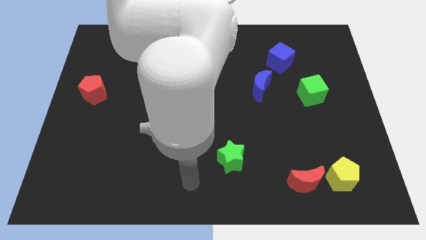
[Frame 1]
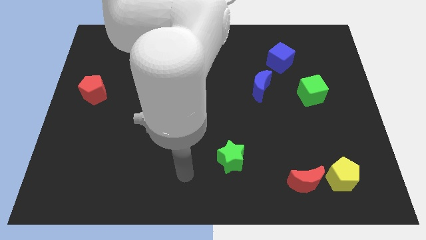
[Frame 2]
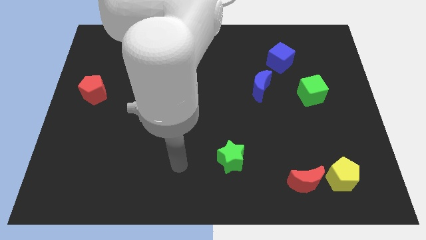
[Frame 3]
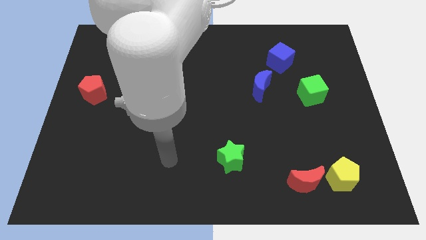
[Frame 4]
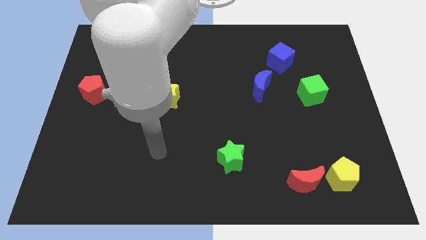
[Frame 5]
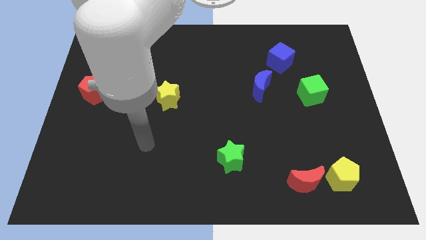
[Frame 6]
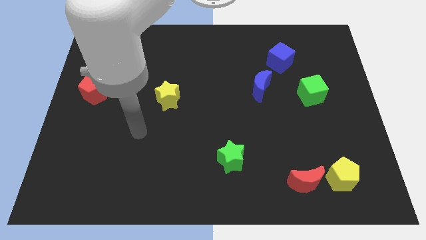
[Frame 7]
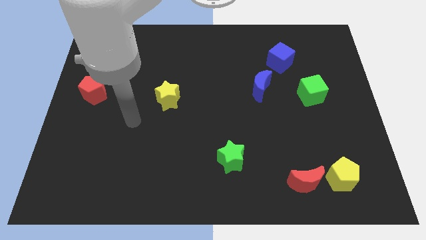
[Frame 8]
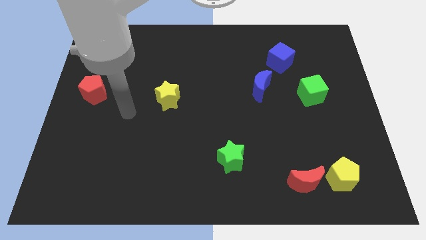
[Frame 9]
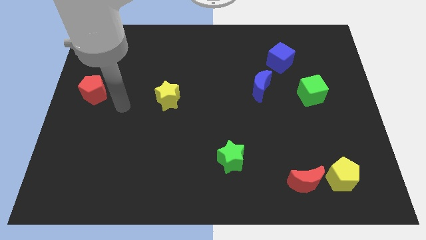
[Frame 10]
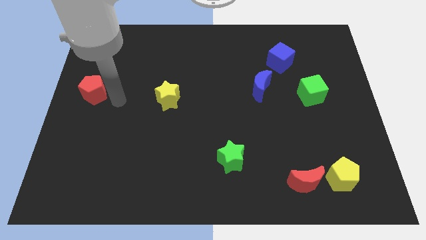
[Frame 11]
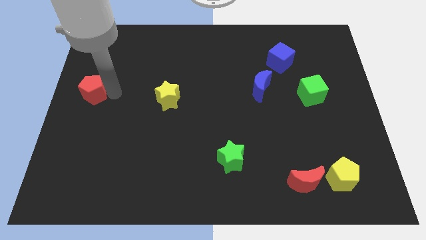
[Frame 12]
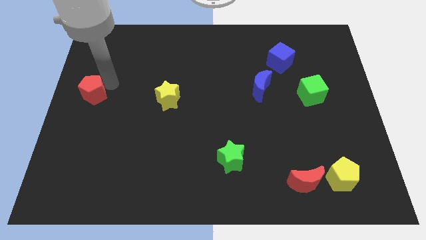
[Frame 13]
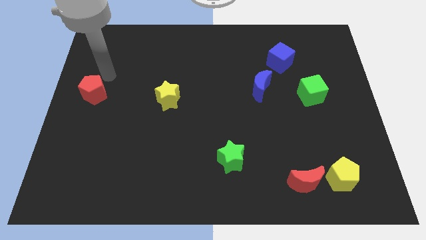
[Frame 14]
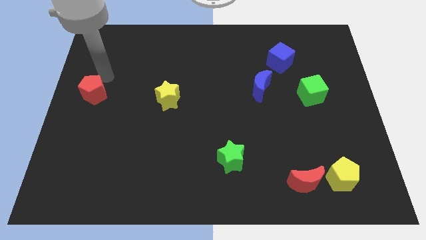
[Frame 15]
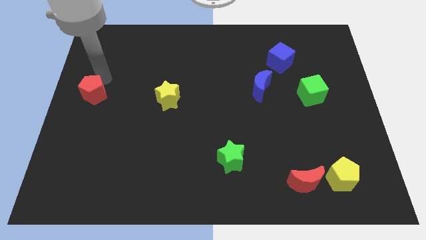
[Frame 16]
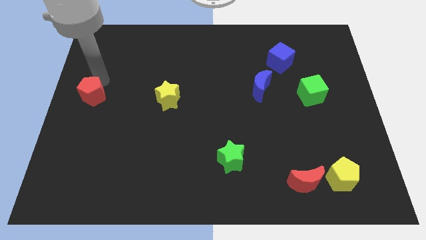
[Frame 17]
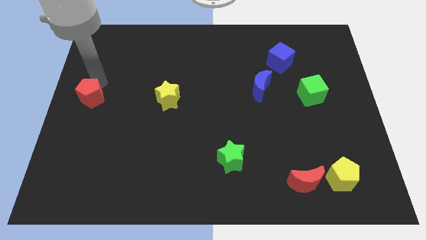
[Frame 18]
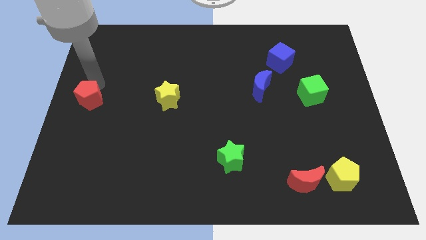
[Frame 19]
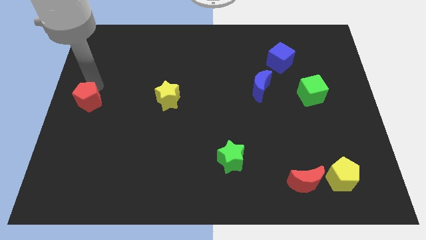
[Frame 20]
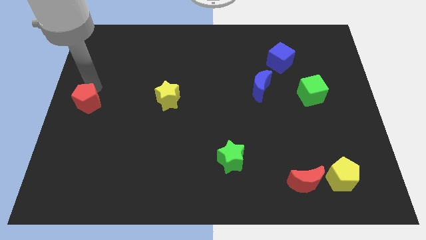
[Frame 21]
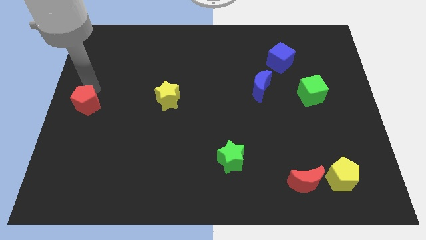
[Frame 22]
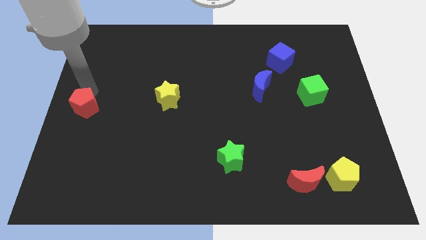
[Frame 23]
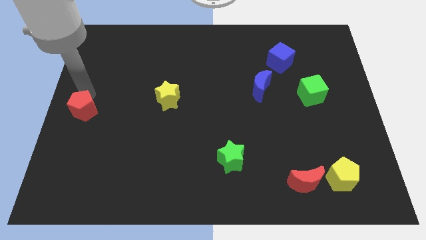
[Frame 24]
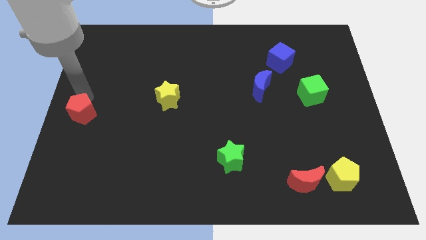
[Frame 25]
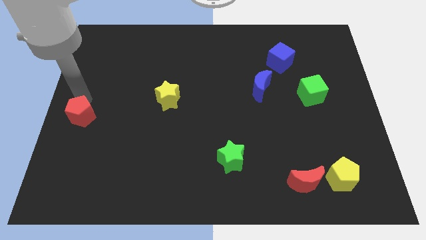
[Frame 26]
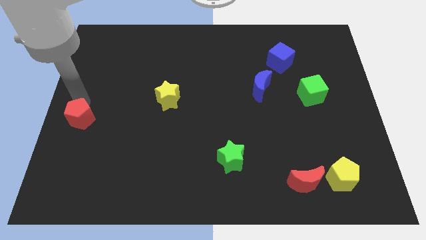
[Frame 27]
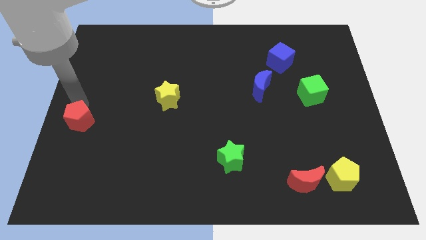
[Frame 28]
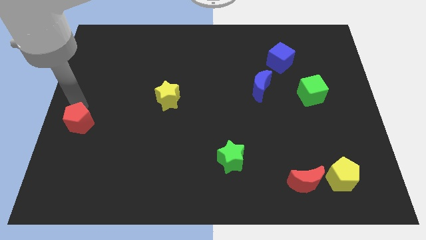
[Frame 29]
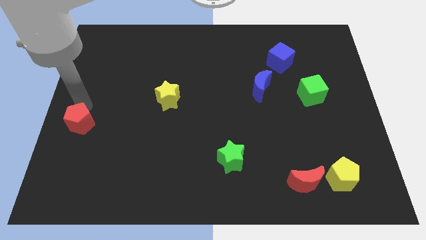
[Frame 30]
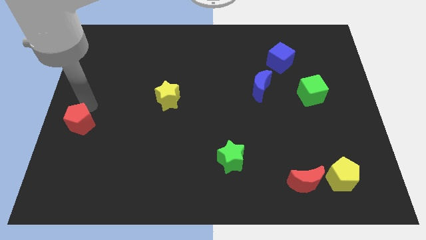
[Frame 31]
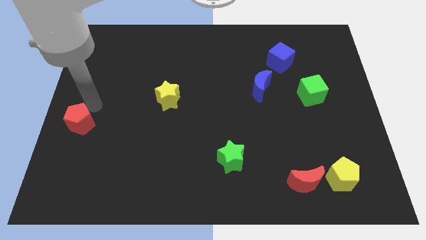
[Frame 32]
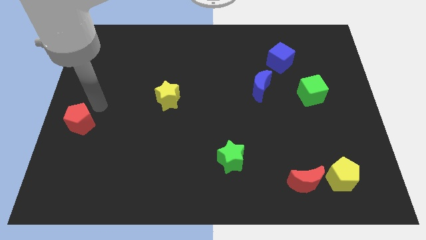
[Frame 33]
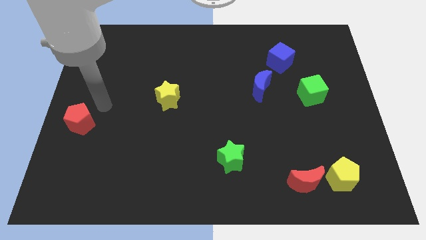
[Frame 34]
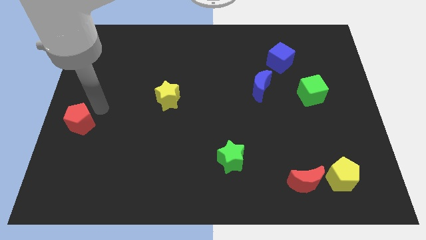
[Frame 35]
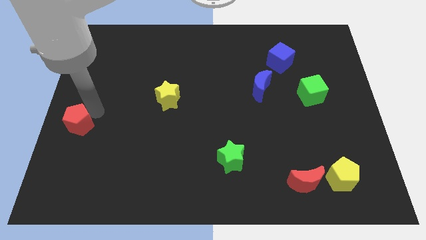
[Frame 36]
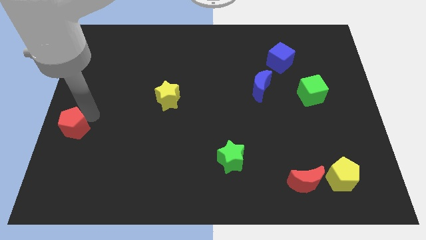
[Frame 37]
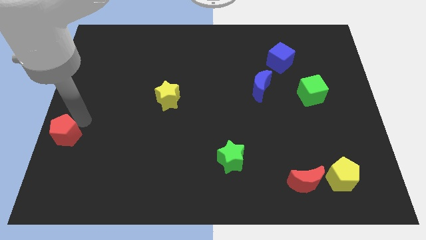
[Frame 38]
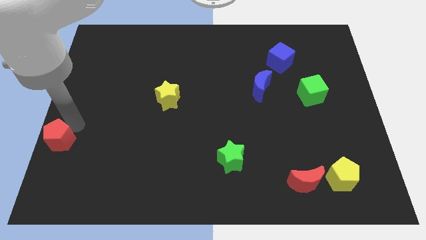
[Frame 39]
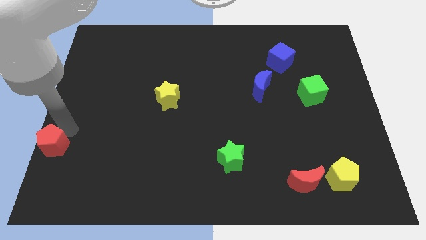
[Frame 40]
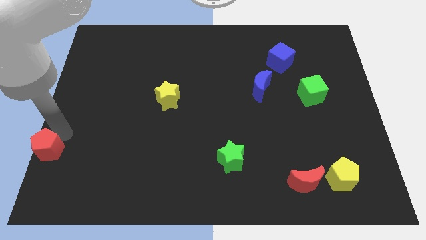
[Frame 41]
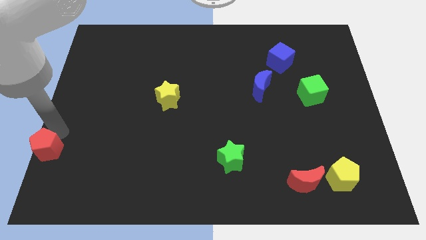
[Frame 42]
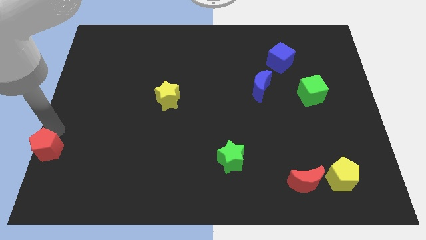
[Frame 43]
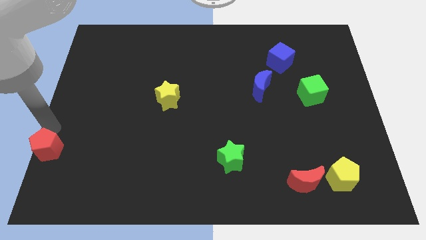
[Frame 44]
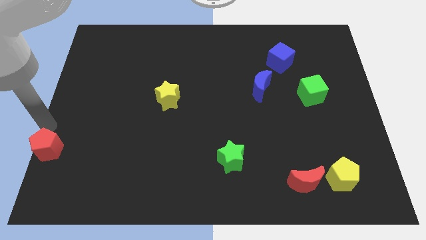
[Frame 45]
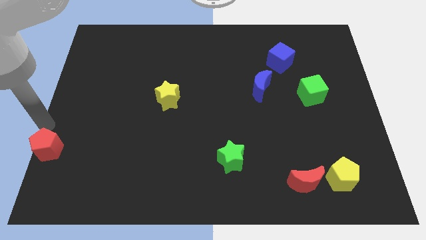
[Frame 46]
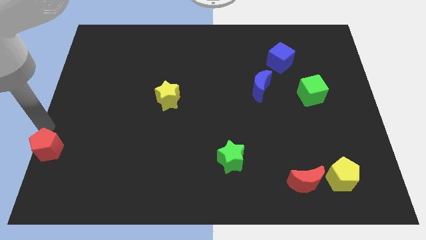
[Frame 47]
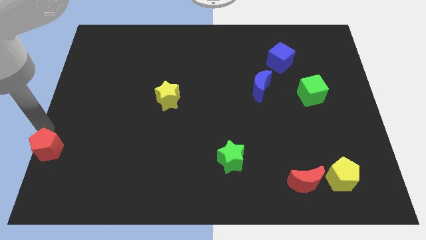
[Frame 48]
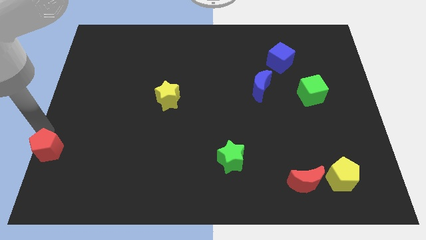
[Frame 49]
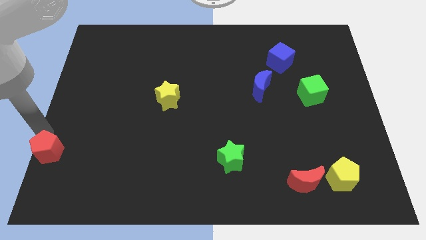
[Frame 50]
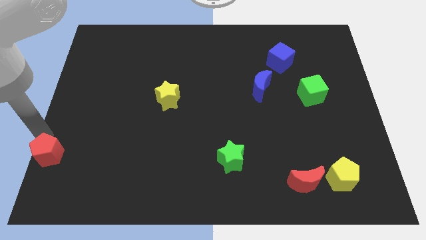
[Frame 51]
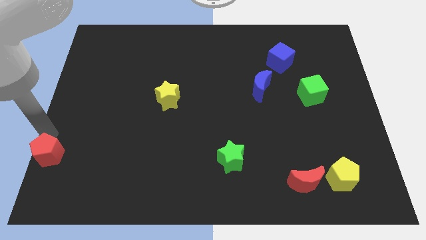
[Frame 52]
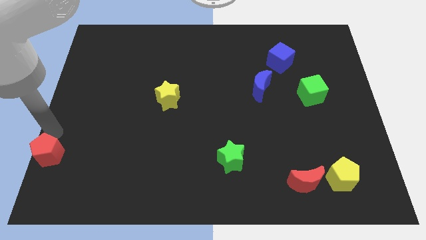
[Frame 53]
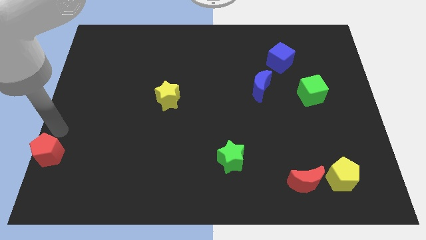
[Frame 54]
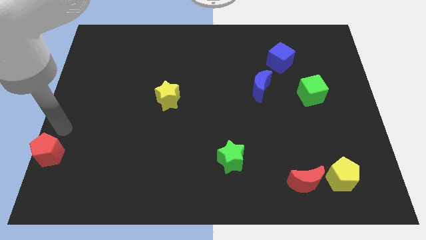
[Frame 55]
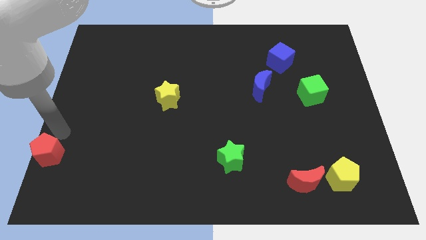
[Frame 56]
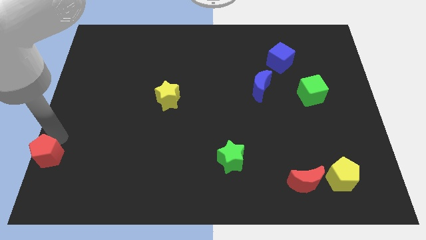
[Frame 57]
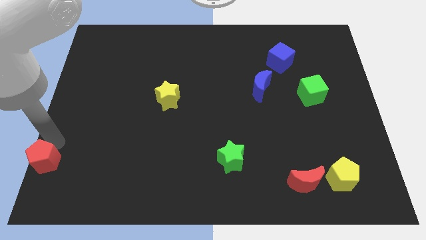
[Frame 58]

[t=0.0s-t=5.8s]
put the red pentagon to the lower left corner

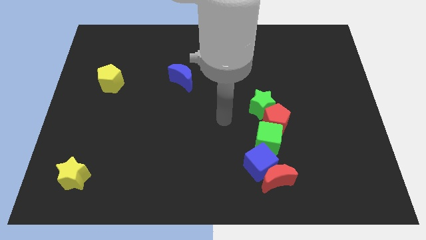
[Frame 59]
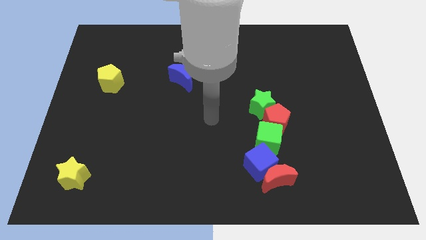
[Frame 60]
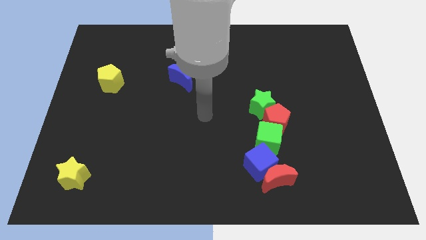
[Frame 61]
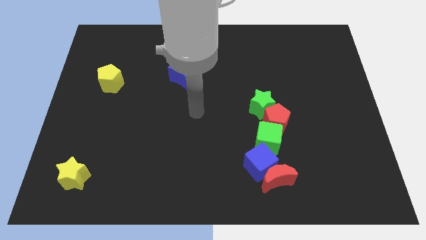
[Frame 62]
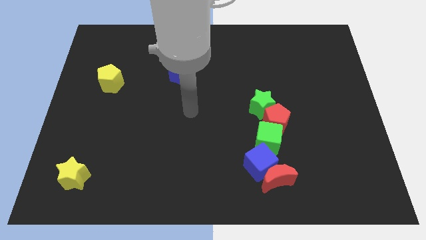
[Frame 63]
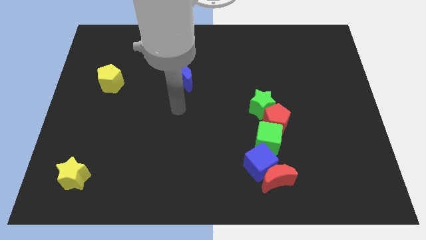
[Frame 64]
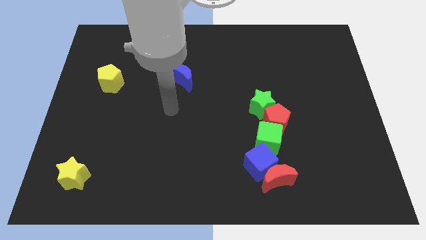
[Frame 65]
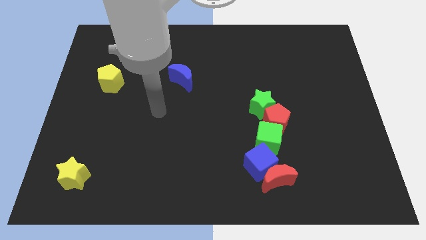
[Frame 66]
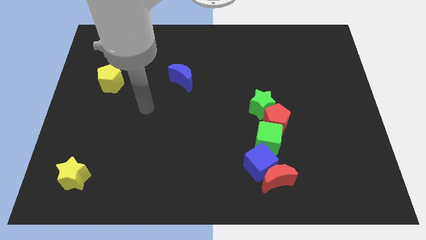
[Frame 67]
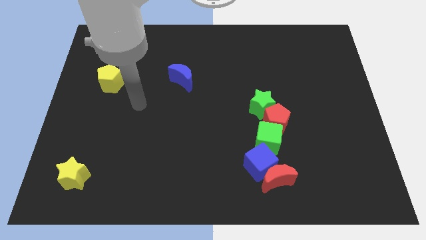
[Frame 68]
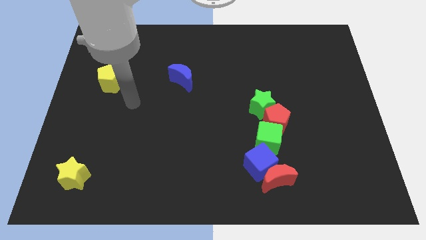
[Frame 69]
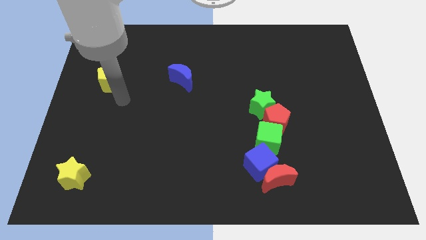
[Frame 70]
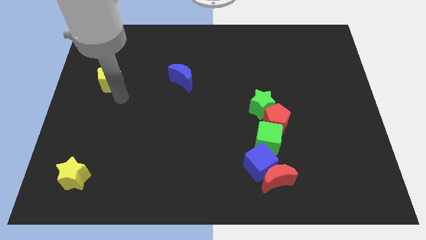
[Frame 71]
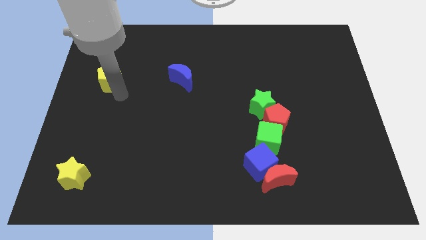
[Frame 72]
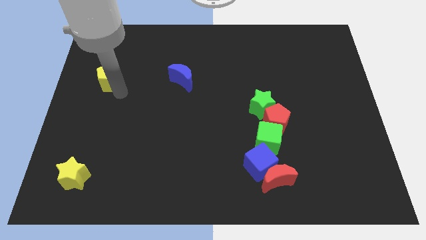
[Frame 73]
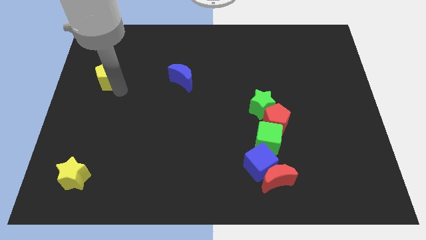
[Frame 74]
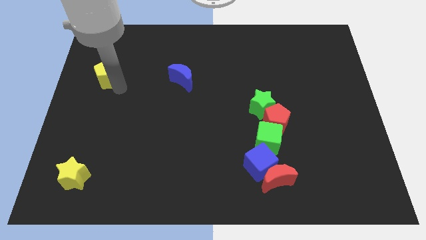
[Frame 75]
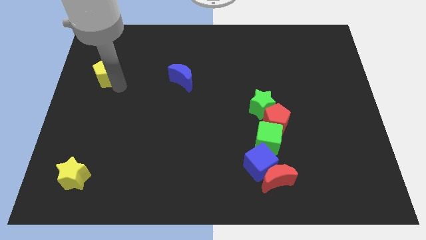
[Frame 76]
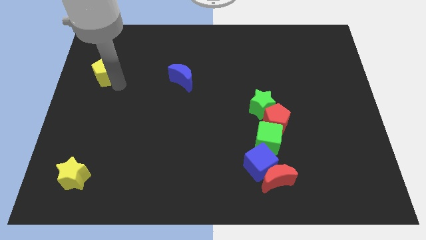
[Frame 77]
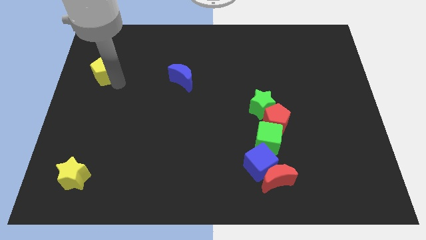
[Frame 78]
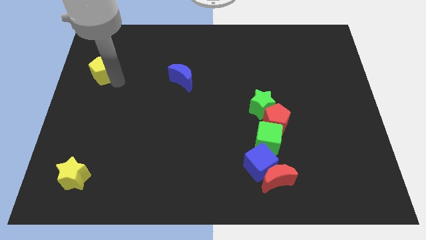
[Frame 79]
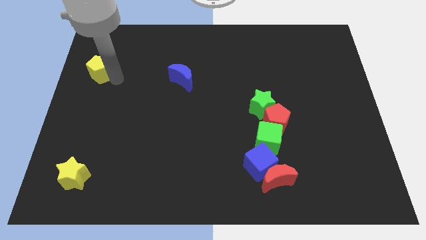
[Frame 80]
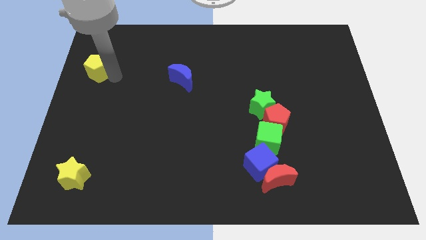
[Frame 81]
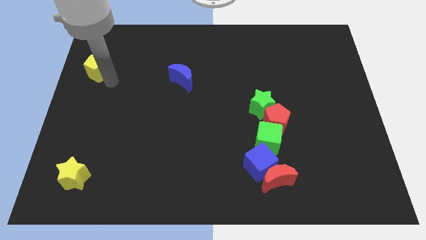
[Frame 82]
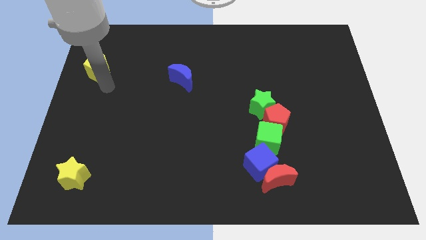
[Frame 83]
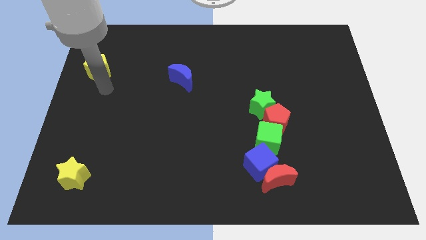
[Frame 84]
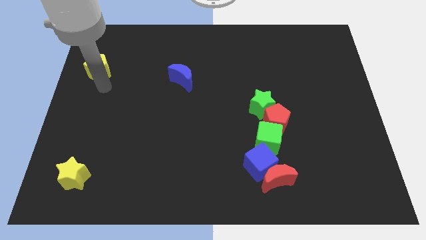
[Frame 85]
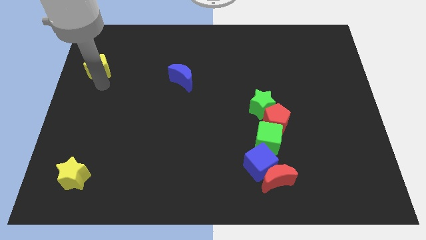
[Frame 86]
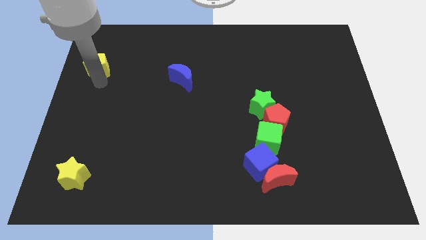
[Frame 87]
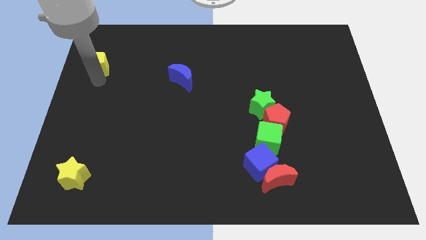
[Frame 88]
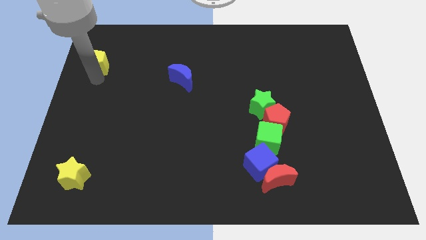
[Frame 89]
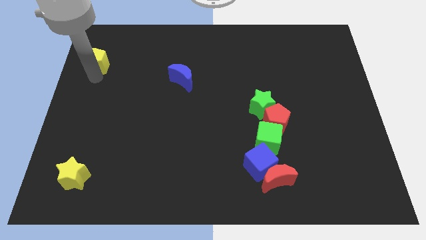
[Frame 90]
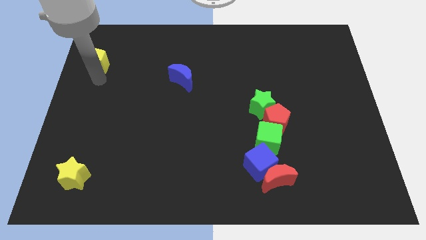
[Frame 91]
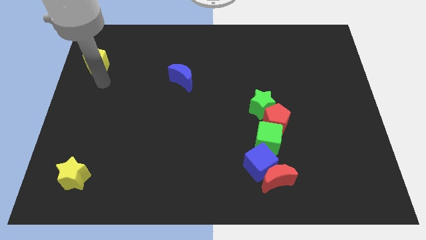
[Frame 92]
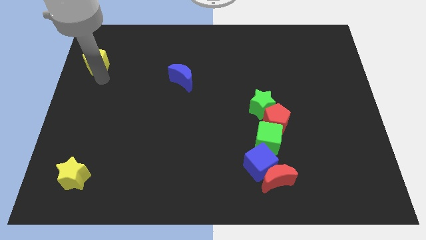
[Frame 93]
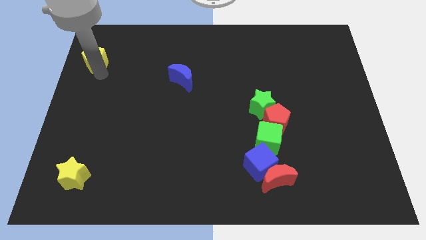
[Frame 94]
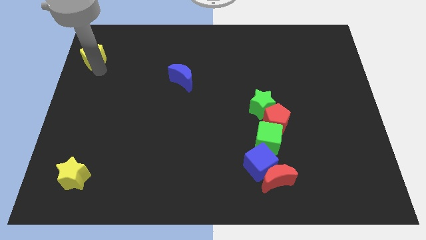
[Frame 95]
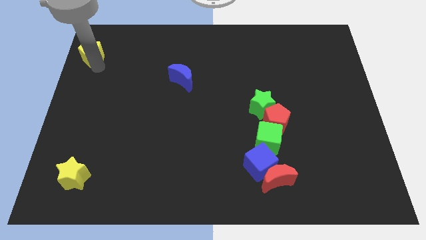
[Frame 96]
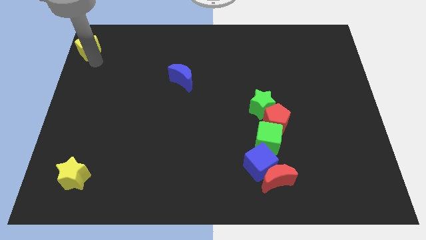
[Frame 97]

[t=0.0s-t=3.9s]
slide the yellow pentagon to the top left
